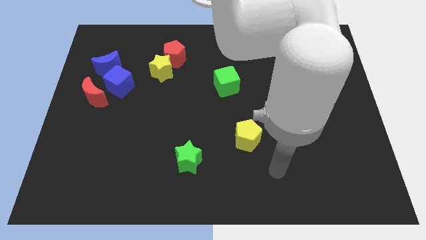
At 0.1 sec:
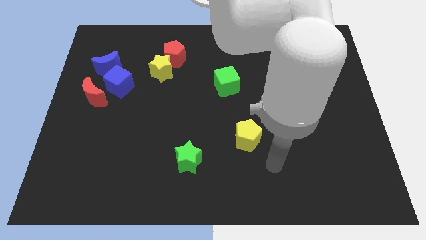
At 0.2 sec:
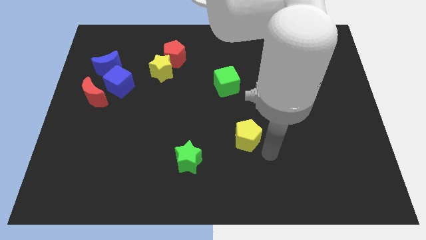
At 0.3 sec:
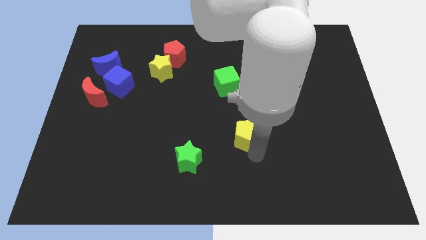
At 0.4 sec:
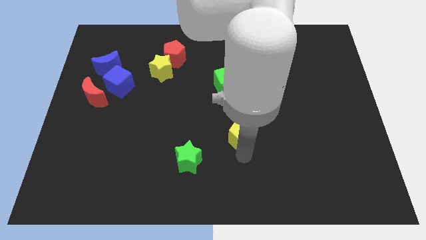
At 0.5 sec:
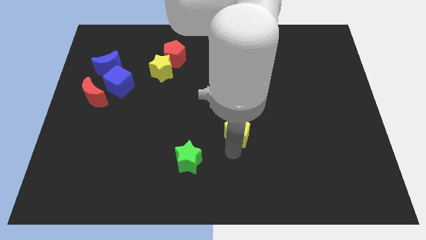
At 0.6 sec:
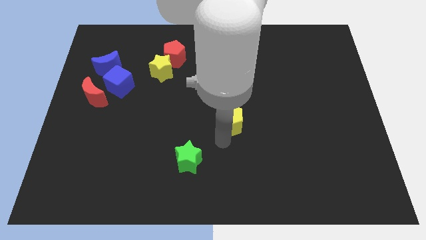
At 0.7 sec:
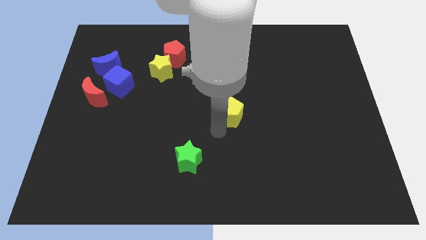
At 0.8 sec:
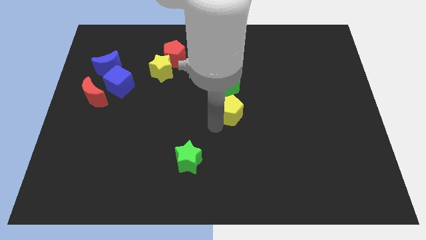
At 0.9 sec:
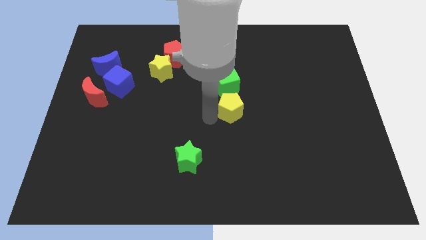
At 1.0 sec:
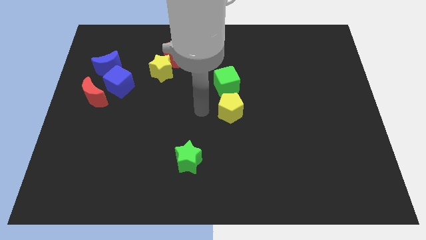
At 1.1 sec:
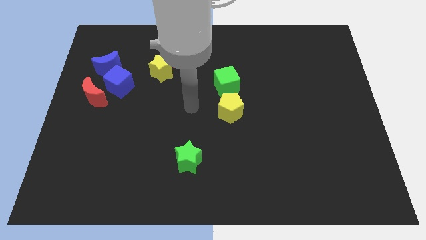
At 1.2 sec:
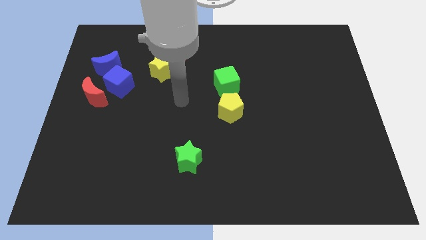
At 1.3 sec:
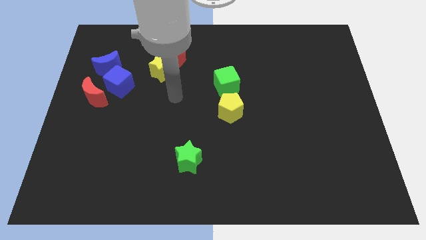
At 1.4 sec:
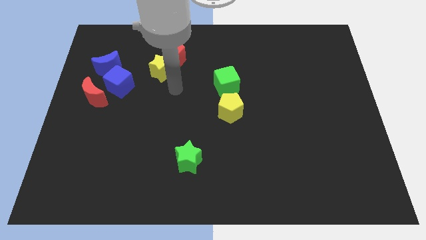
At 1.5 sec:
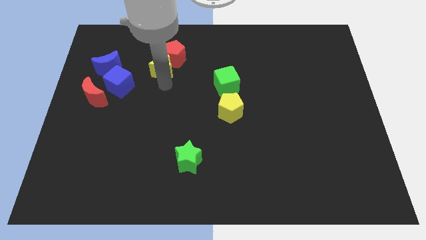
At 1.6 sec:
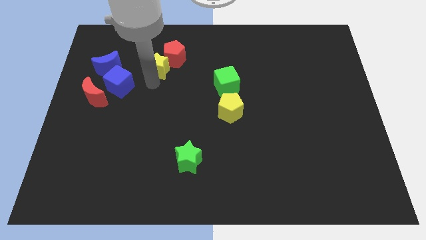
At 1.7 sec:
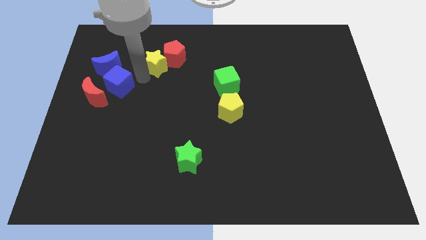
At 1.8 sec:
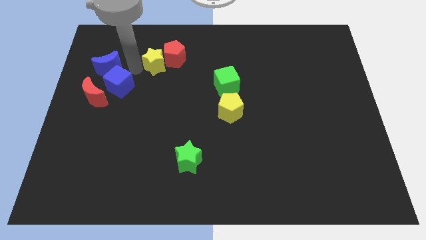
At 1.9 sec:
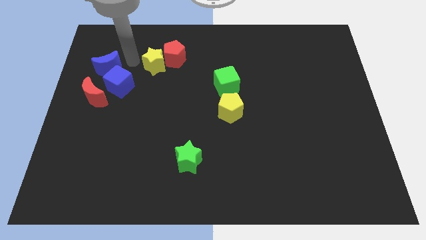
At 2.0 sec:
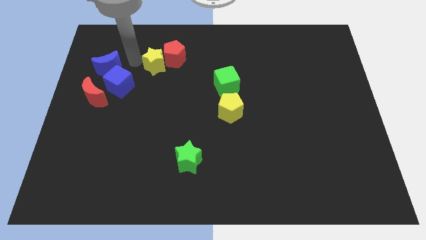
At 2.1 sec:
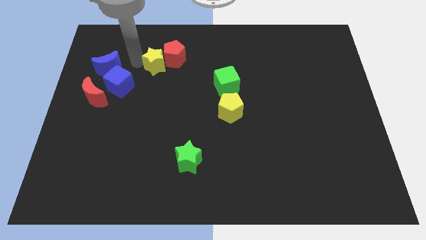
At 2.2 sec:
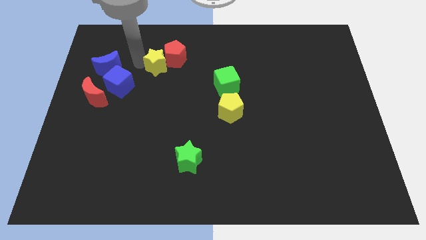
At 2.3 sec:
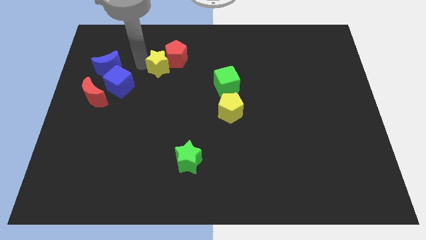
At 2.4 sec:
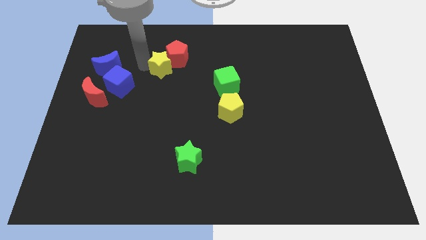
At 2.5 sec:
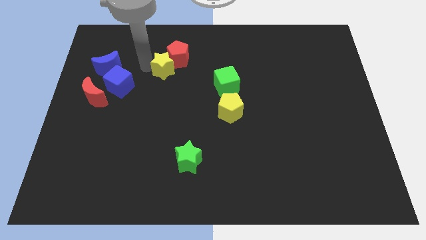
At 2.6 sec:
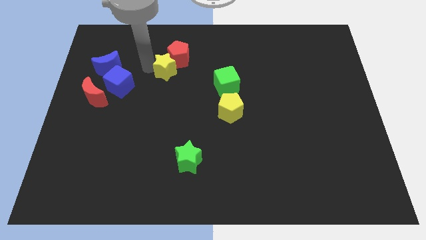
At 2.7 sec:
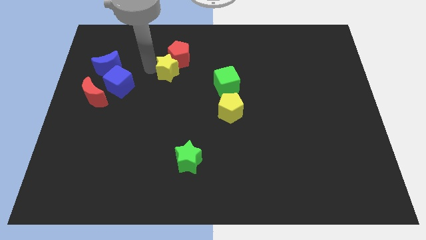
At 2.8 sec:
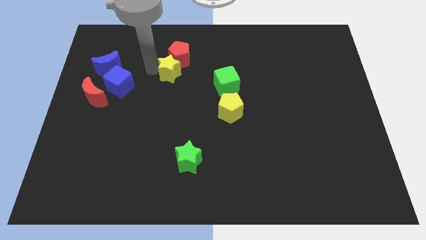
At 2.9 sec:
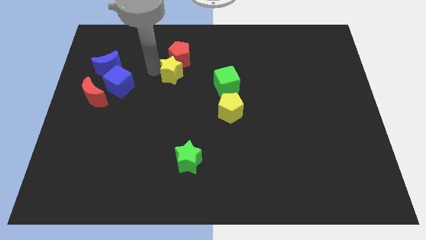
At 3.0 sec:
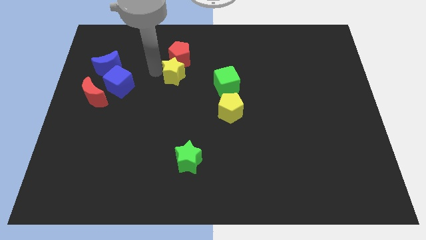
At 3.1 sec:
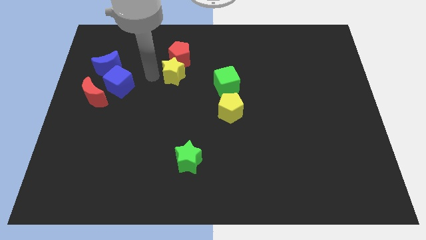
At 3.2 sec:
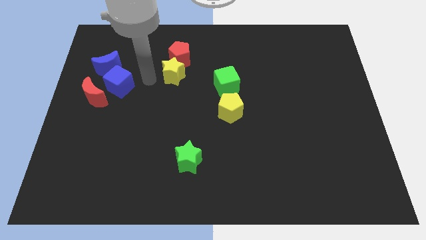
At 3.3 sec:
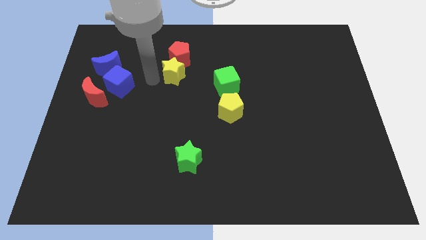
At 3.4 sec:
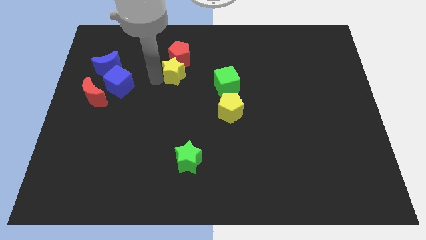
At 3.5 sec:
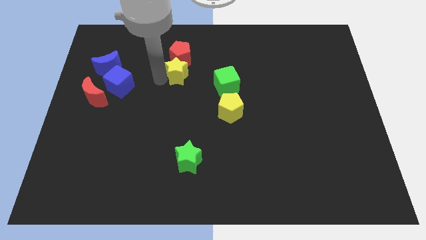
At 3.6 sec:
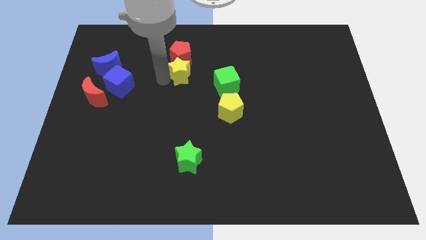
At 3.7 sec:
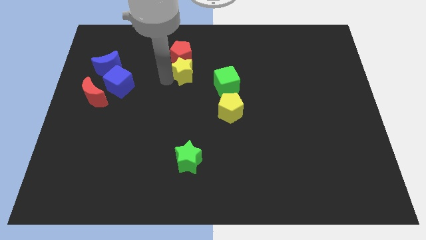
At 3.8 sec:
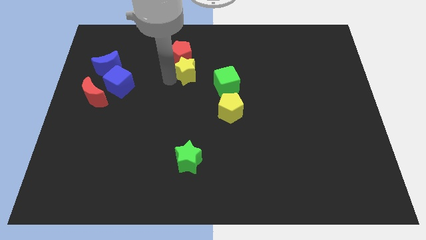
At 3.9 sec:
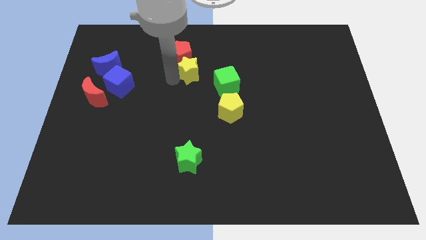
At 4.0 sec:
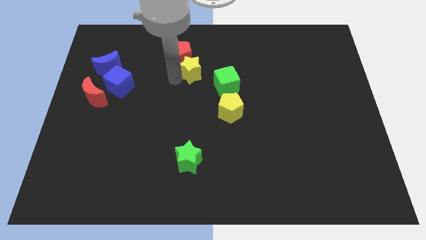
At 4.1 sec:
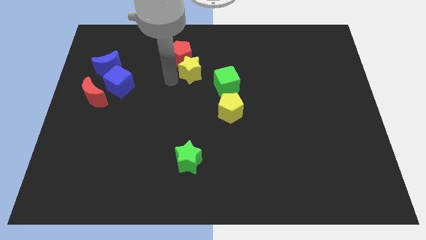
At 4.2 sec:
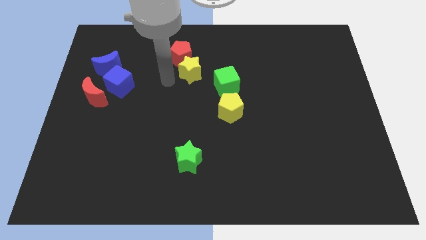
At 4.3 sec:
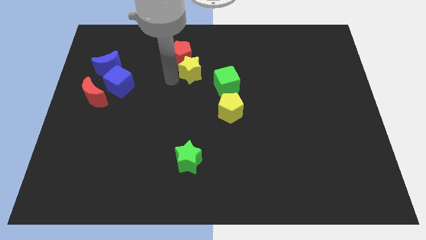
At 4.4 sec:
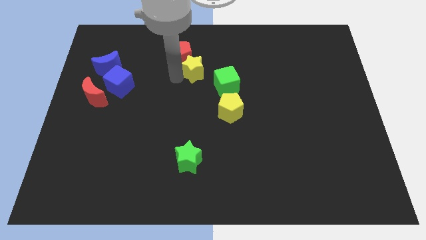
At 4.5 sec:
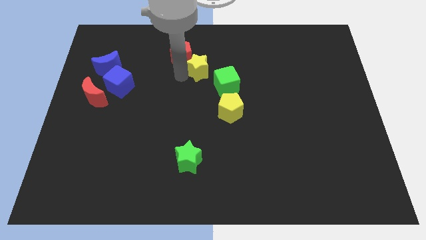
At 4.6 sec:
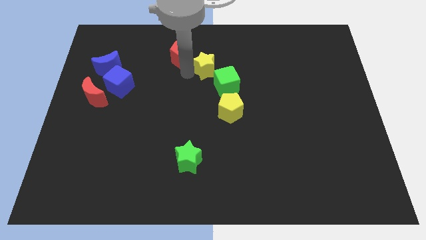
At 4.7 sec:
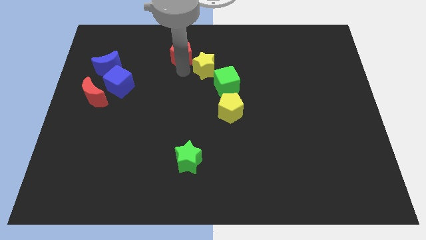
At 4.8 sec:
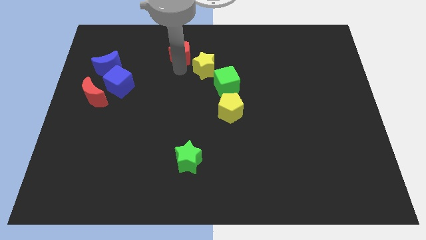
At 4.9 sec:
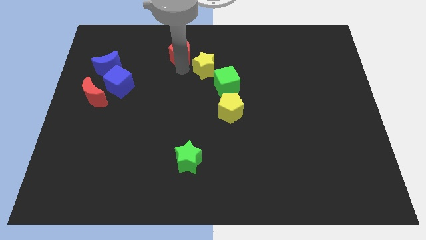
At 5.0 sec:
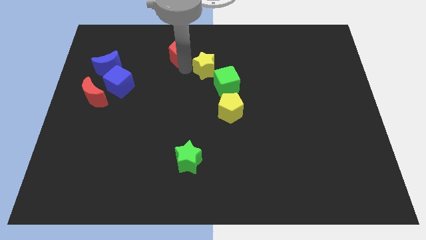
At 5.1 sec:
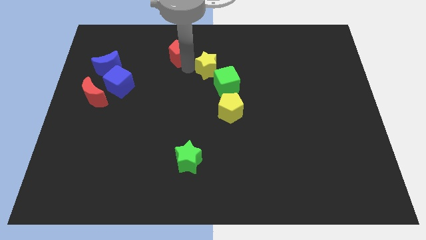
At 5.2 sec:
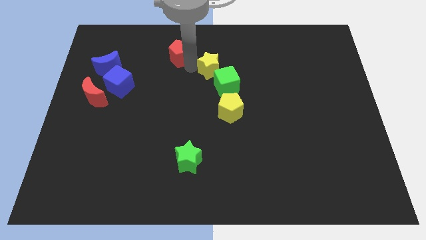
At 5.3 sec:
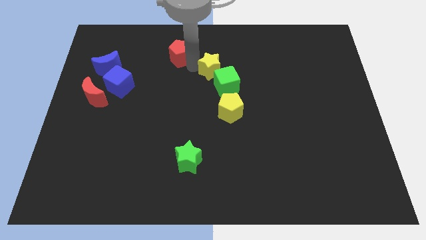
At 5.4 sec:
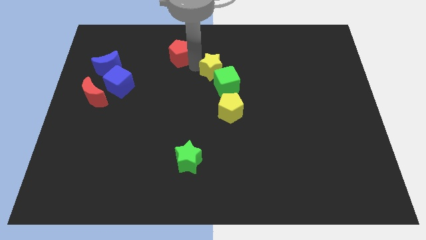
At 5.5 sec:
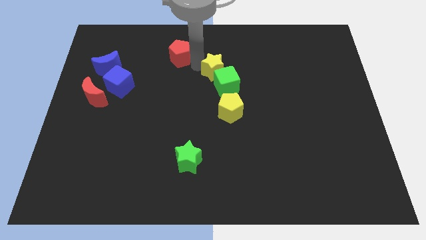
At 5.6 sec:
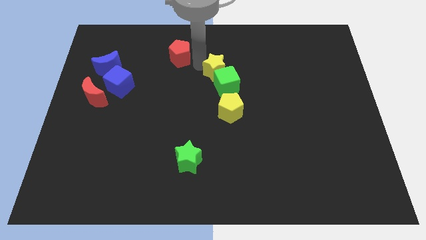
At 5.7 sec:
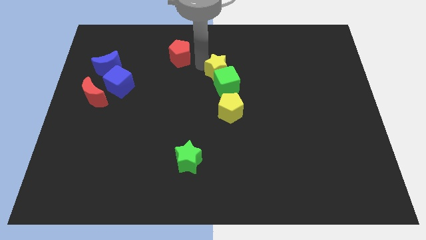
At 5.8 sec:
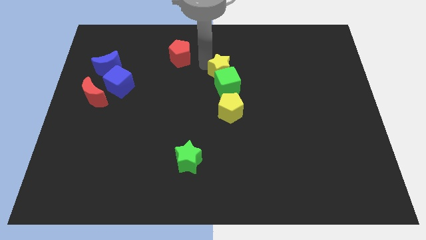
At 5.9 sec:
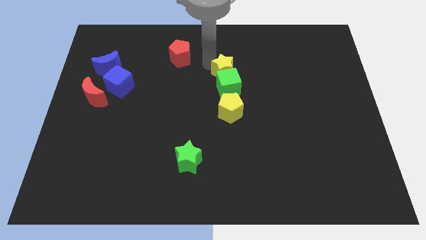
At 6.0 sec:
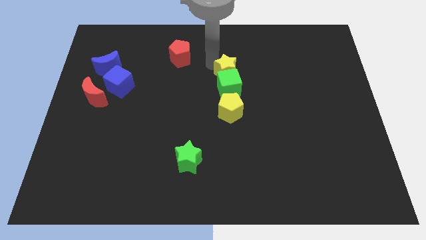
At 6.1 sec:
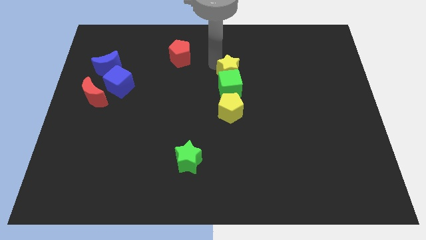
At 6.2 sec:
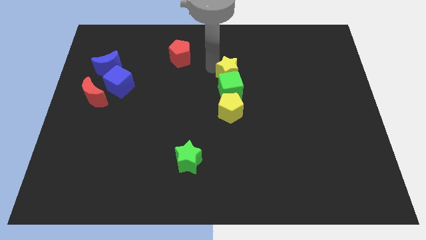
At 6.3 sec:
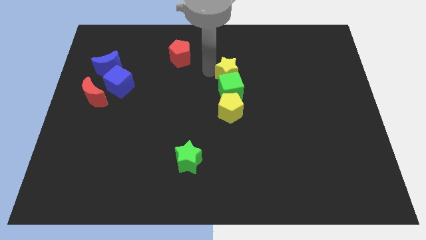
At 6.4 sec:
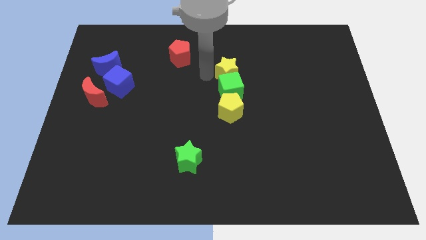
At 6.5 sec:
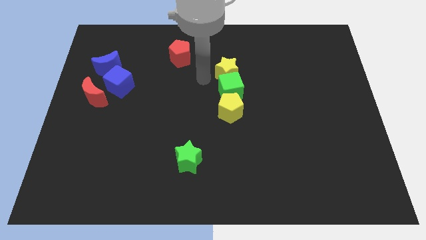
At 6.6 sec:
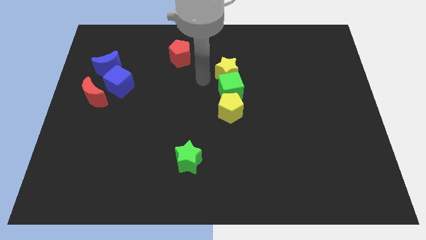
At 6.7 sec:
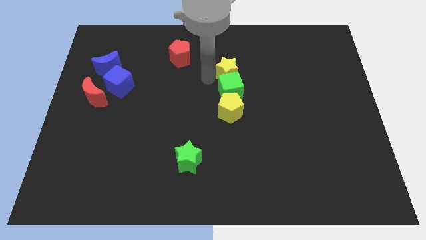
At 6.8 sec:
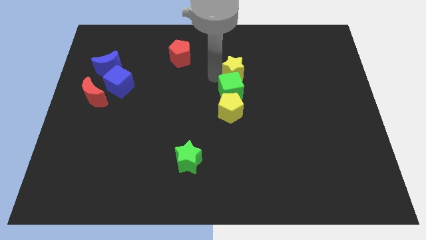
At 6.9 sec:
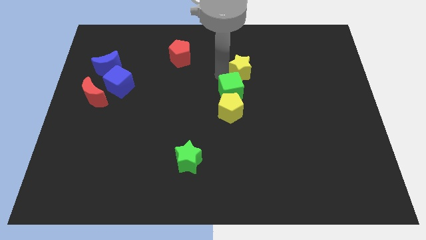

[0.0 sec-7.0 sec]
push the yellow star right

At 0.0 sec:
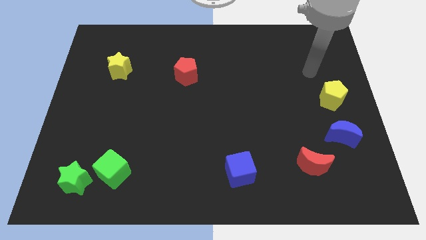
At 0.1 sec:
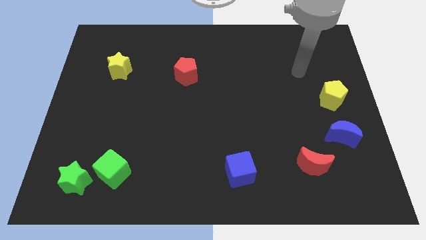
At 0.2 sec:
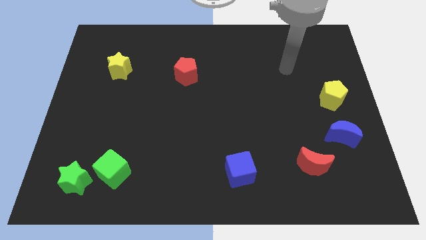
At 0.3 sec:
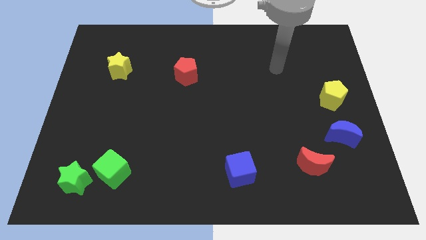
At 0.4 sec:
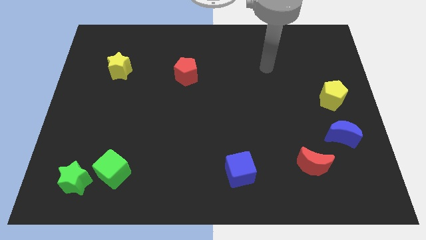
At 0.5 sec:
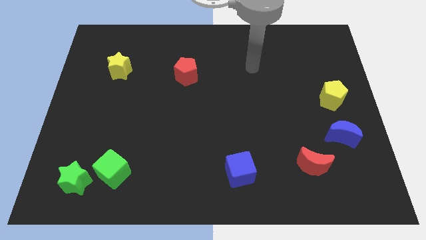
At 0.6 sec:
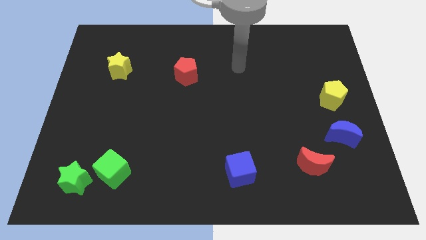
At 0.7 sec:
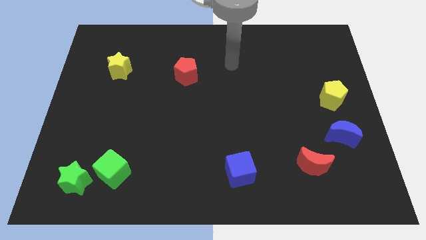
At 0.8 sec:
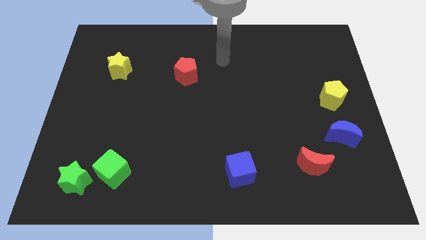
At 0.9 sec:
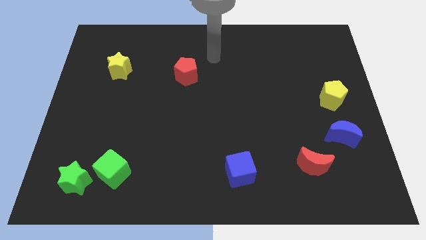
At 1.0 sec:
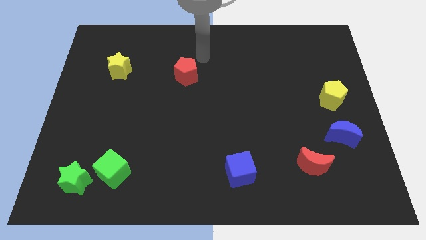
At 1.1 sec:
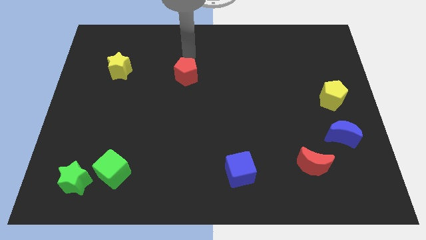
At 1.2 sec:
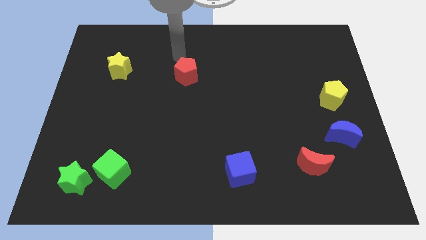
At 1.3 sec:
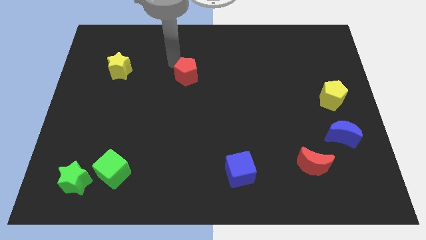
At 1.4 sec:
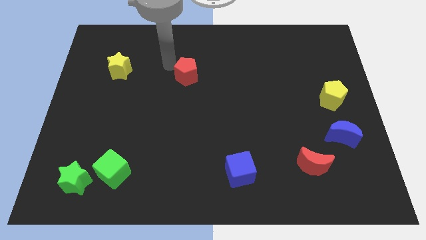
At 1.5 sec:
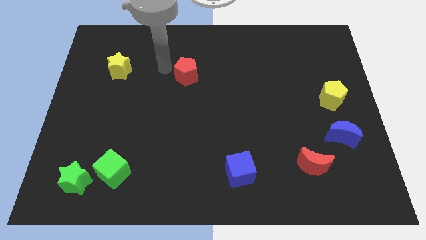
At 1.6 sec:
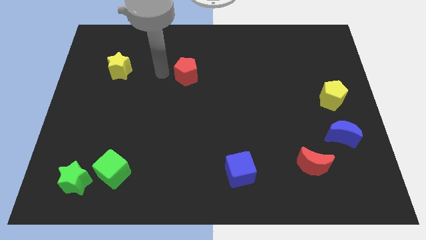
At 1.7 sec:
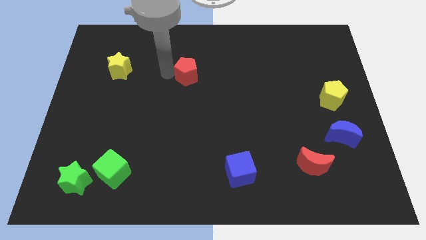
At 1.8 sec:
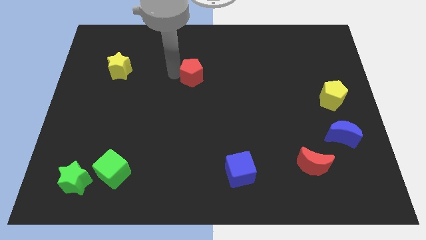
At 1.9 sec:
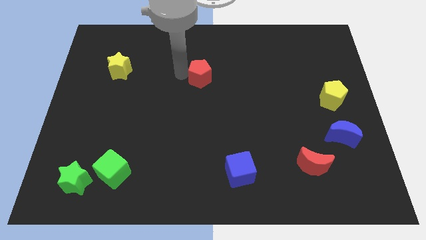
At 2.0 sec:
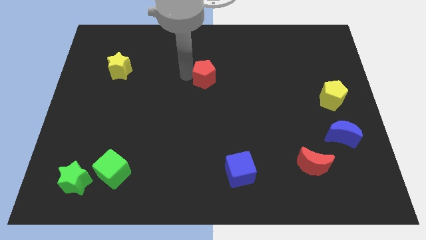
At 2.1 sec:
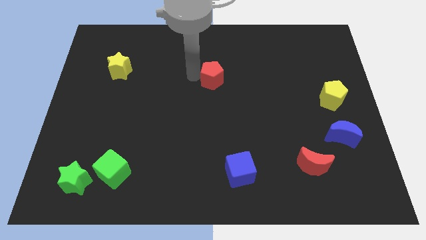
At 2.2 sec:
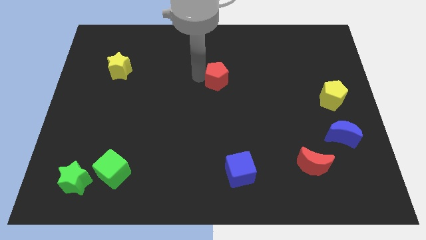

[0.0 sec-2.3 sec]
move the red pentagon right a little bit
